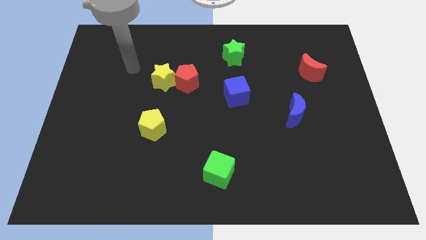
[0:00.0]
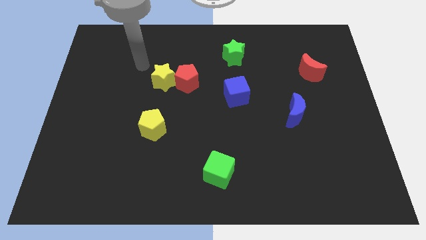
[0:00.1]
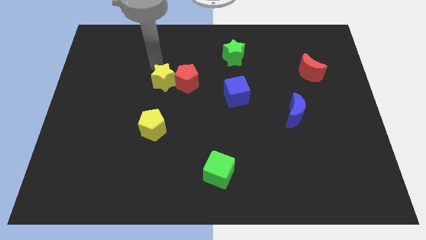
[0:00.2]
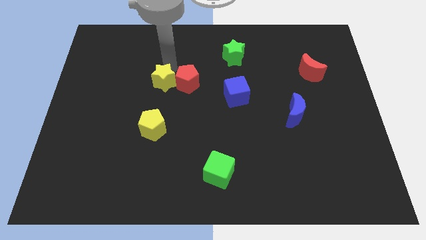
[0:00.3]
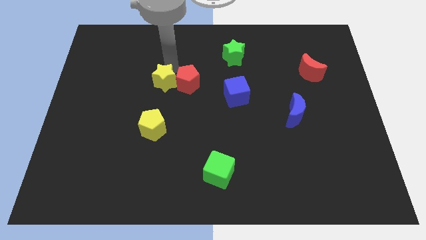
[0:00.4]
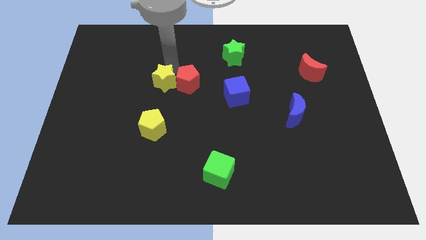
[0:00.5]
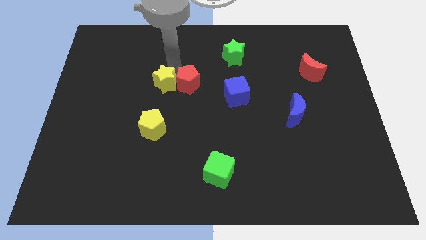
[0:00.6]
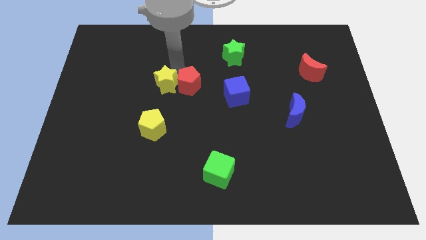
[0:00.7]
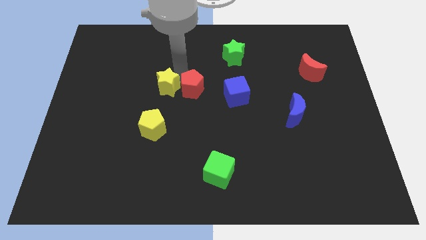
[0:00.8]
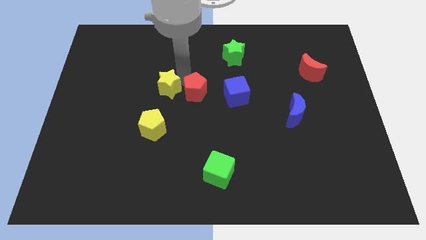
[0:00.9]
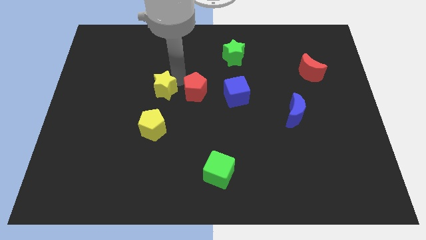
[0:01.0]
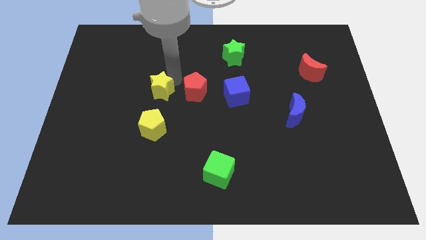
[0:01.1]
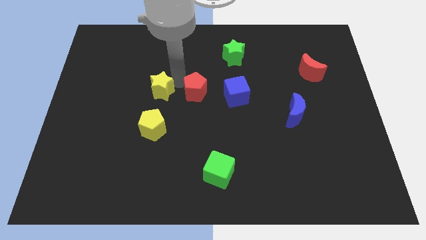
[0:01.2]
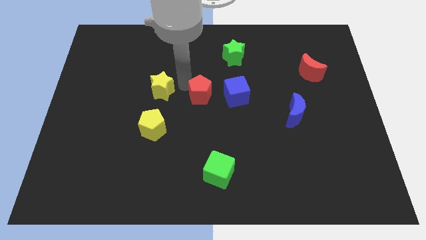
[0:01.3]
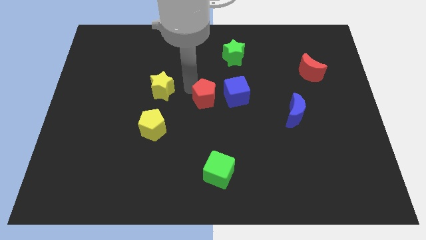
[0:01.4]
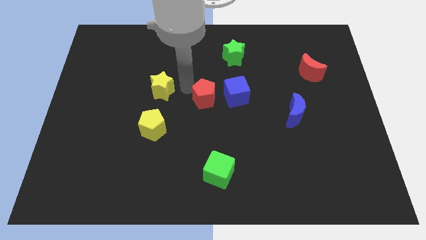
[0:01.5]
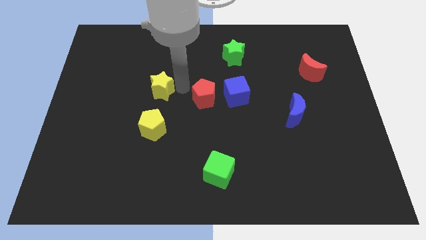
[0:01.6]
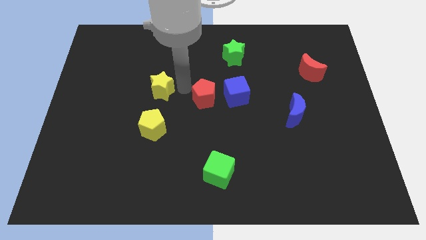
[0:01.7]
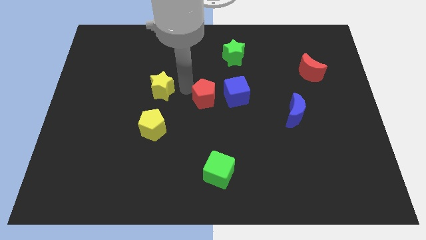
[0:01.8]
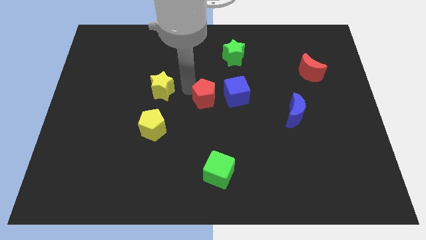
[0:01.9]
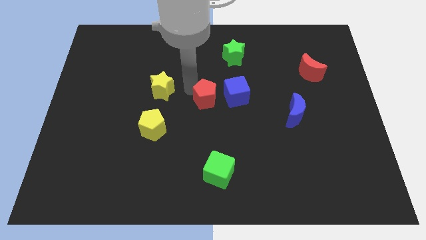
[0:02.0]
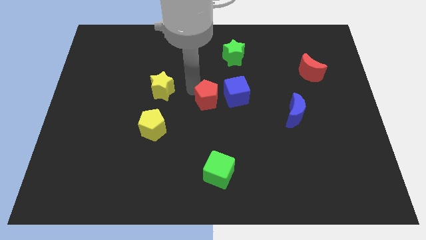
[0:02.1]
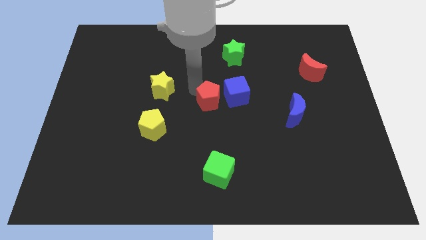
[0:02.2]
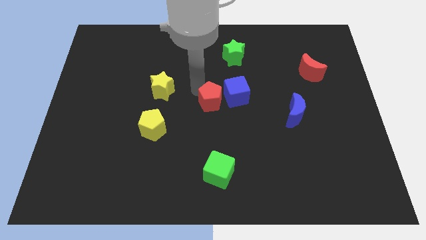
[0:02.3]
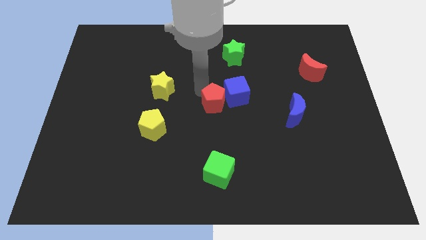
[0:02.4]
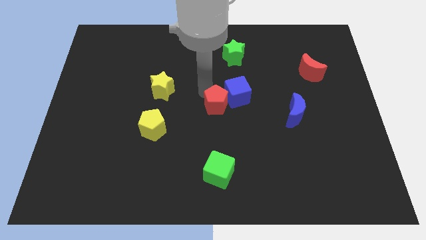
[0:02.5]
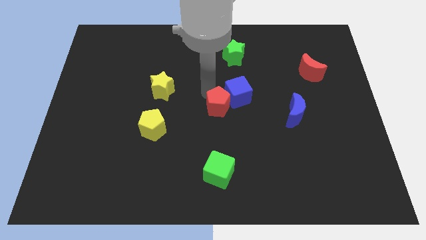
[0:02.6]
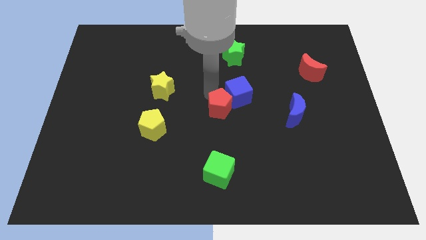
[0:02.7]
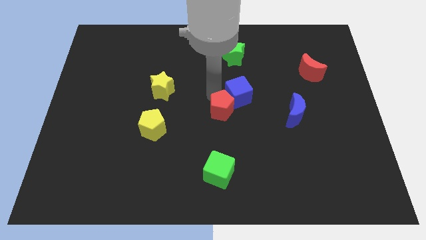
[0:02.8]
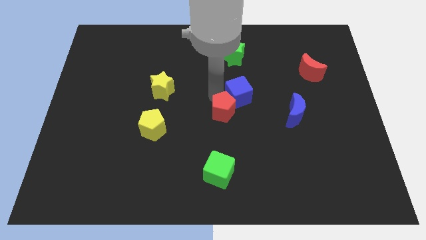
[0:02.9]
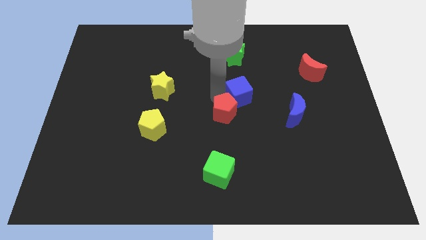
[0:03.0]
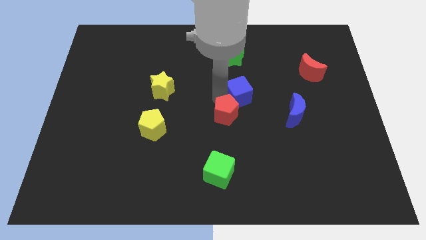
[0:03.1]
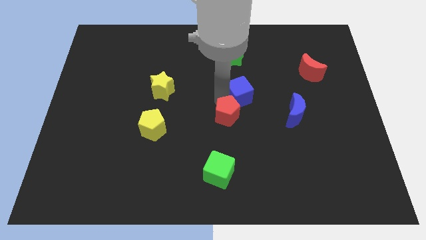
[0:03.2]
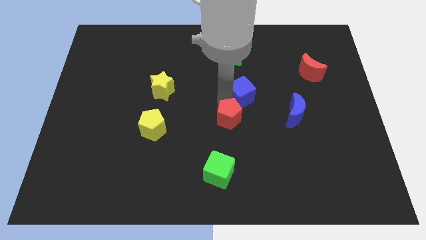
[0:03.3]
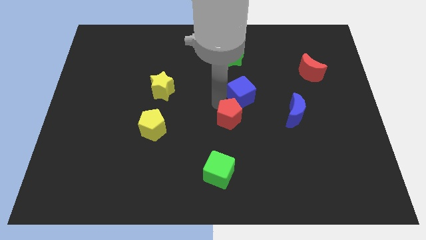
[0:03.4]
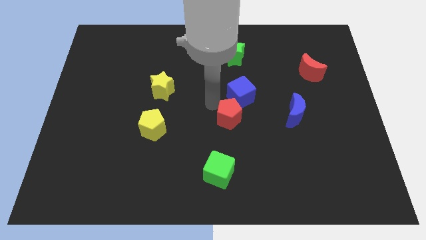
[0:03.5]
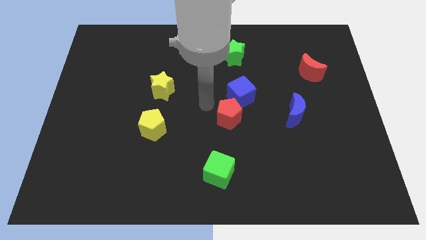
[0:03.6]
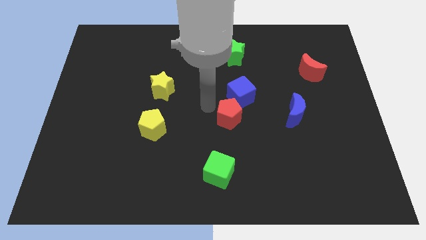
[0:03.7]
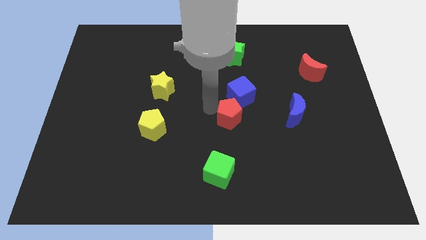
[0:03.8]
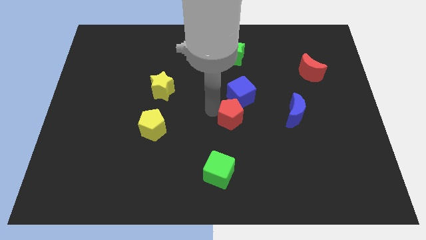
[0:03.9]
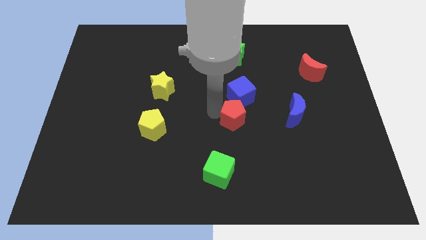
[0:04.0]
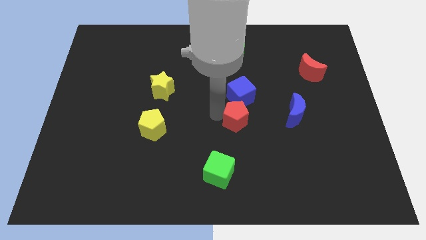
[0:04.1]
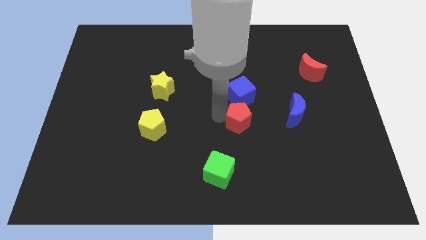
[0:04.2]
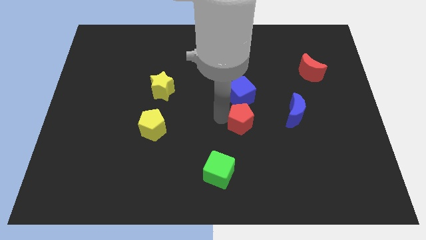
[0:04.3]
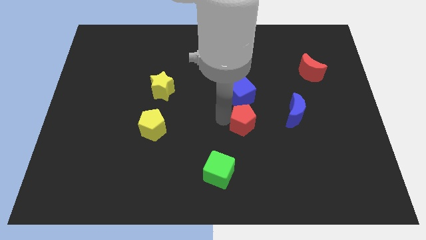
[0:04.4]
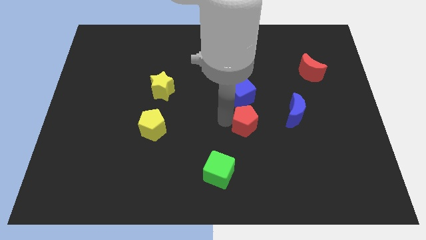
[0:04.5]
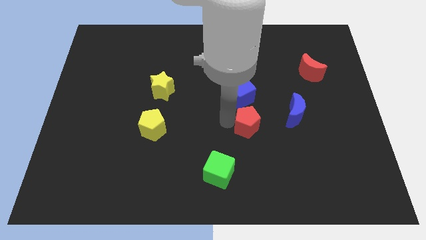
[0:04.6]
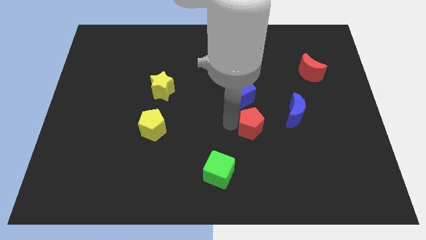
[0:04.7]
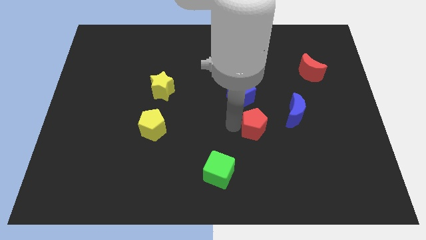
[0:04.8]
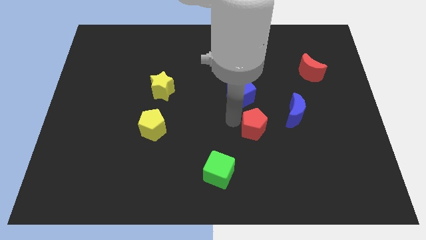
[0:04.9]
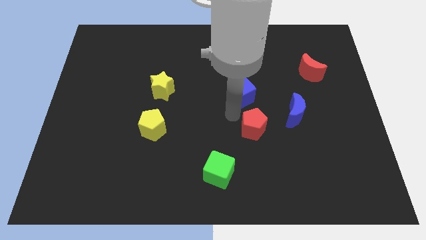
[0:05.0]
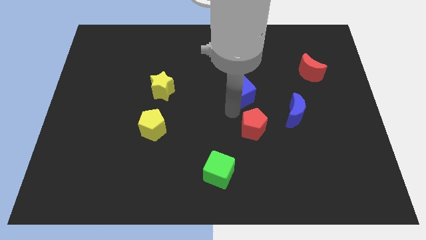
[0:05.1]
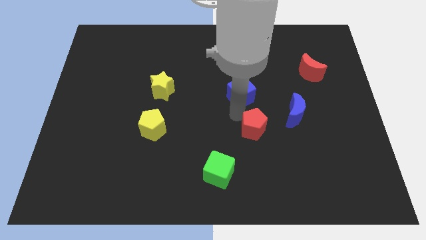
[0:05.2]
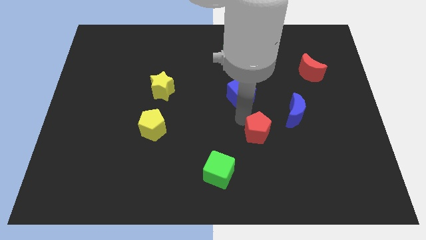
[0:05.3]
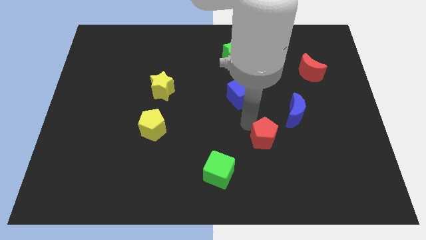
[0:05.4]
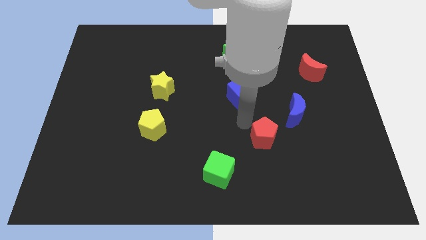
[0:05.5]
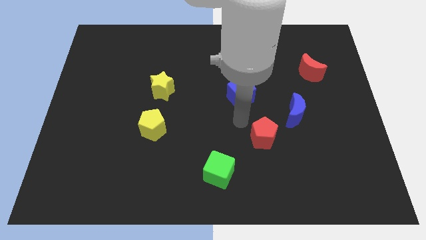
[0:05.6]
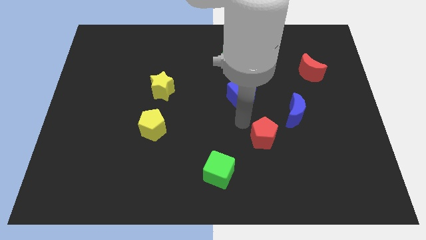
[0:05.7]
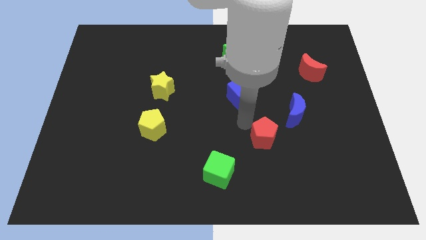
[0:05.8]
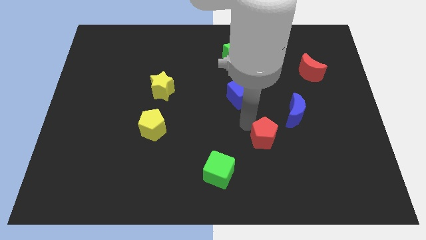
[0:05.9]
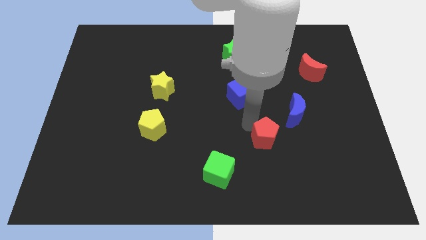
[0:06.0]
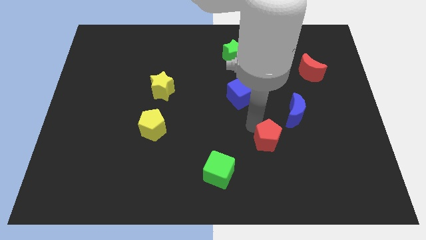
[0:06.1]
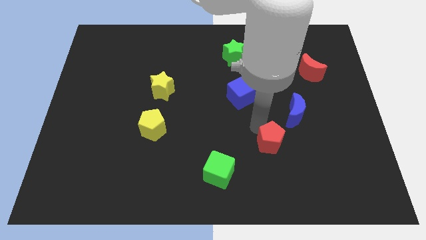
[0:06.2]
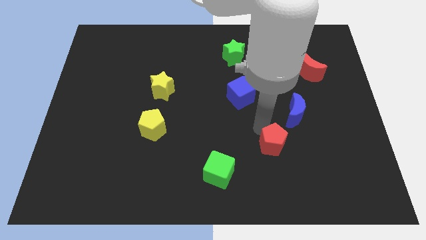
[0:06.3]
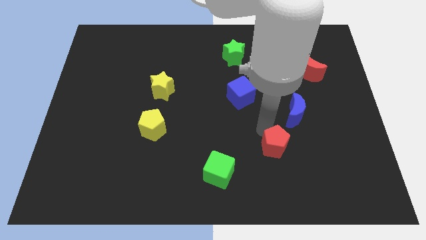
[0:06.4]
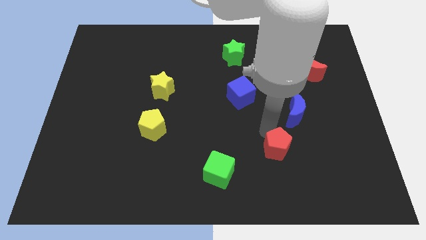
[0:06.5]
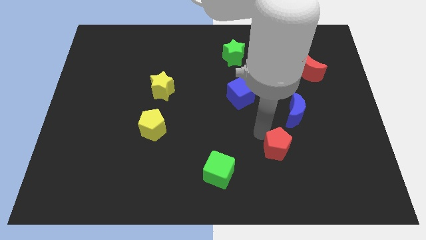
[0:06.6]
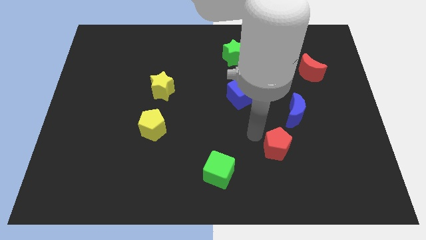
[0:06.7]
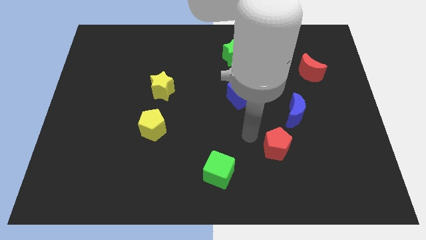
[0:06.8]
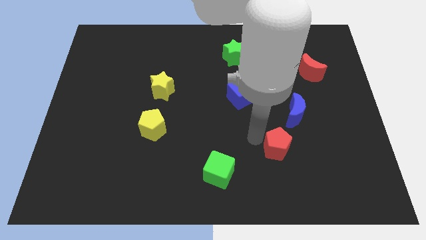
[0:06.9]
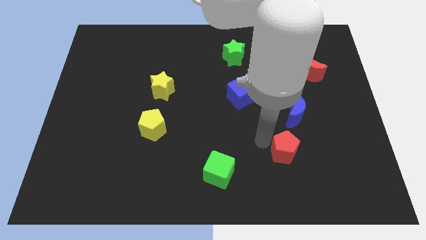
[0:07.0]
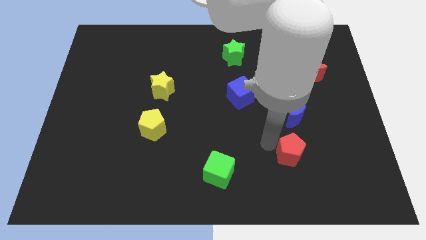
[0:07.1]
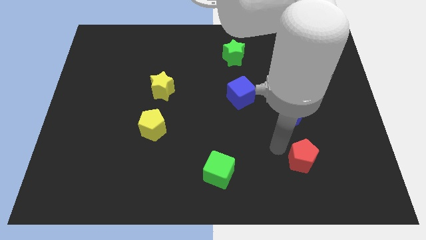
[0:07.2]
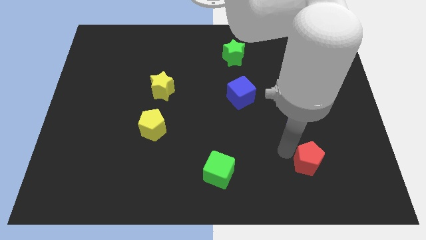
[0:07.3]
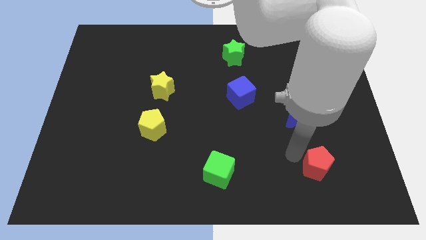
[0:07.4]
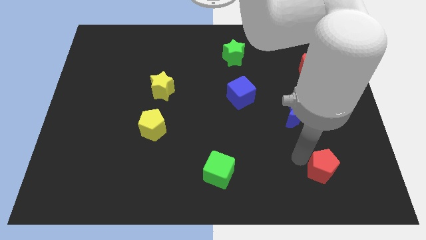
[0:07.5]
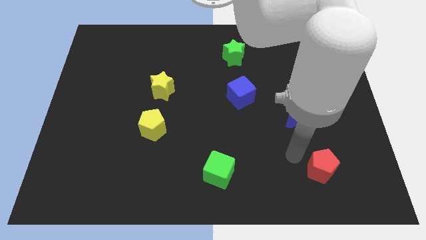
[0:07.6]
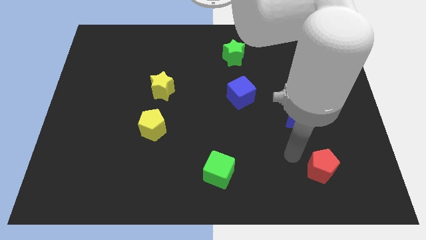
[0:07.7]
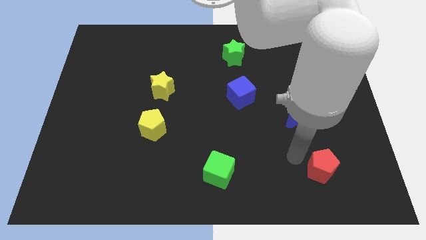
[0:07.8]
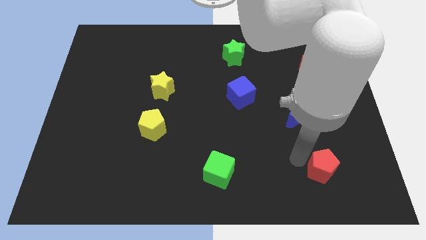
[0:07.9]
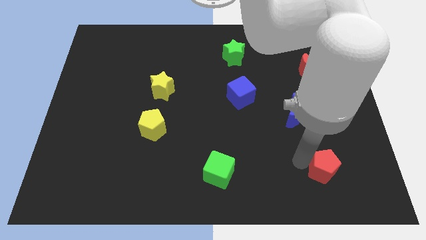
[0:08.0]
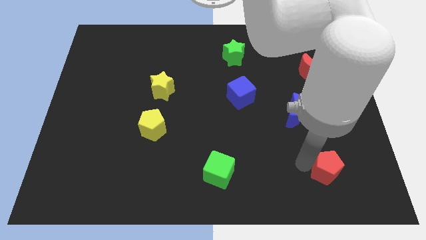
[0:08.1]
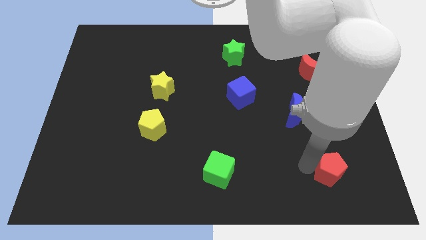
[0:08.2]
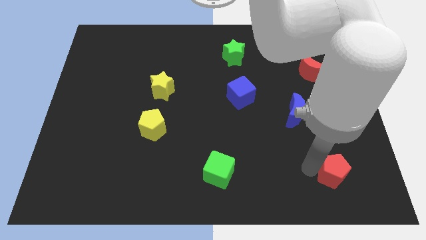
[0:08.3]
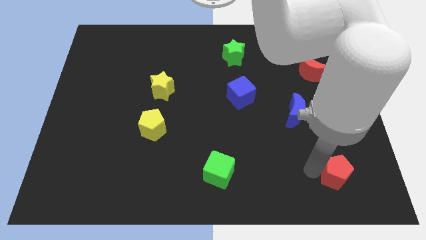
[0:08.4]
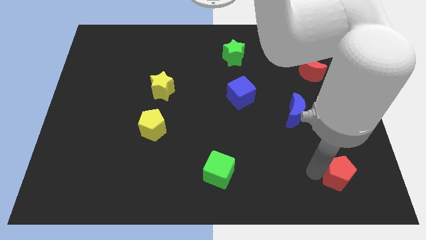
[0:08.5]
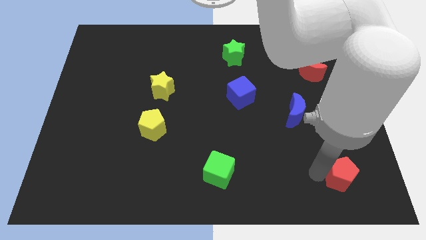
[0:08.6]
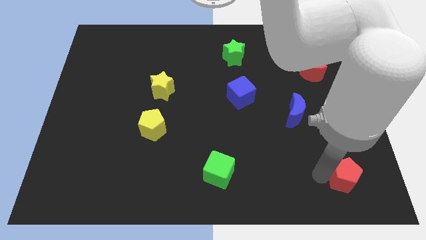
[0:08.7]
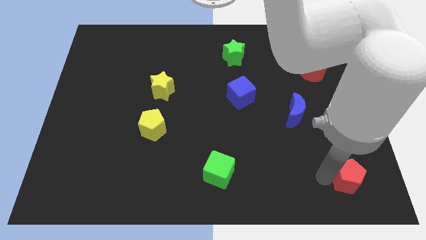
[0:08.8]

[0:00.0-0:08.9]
slide the red pentagon to the bottom right corner
